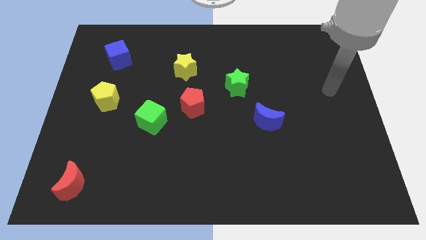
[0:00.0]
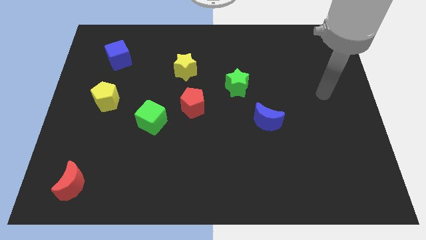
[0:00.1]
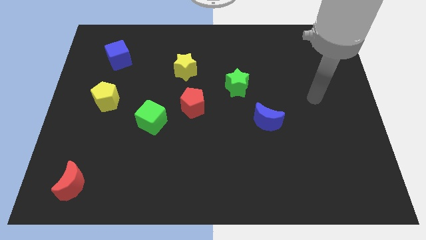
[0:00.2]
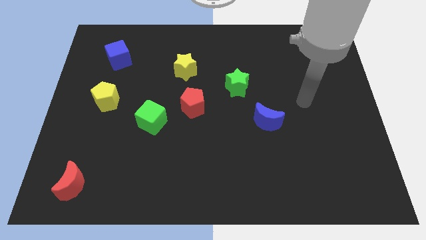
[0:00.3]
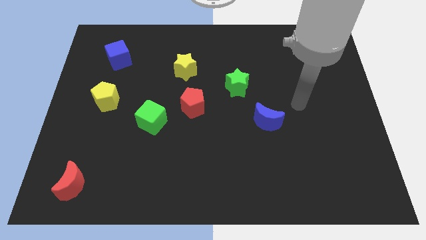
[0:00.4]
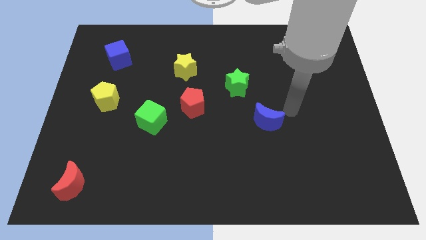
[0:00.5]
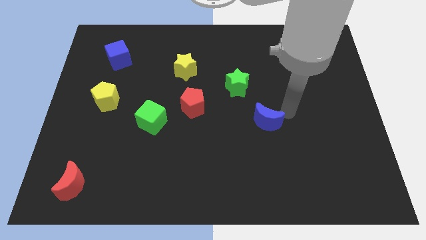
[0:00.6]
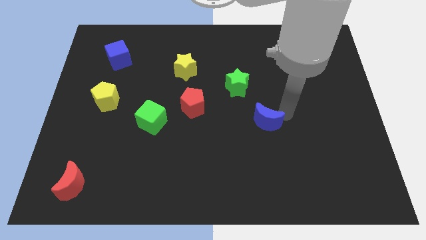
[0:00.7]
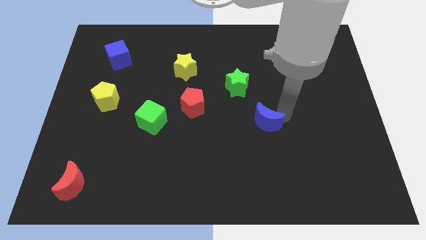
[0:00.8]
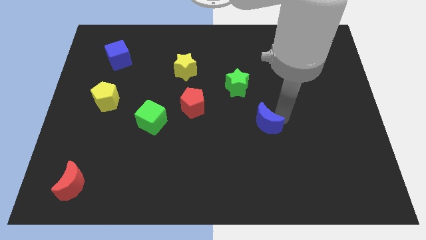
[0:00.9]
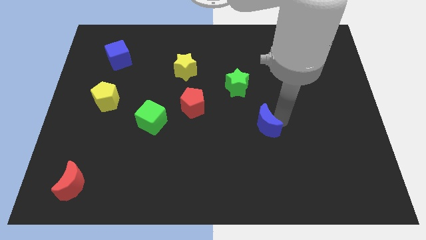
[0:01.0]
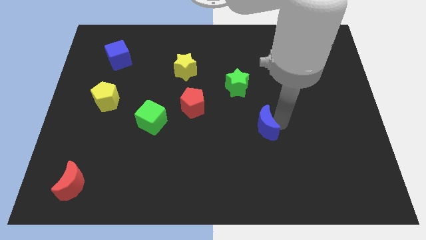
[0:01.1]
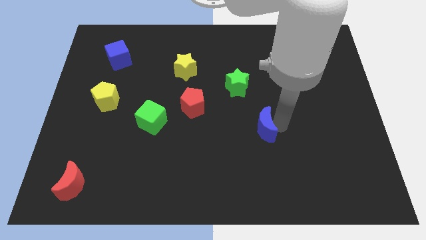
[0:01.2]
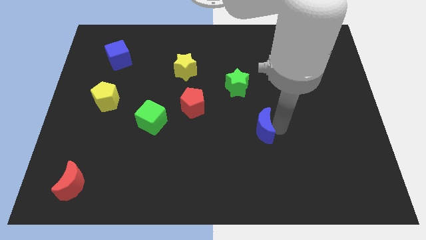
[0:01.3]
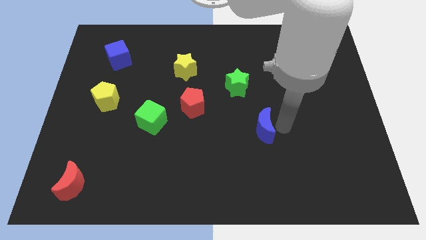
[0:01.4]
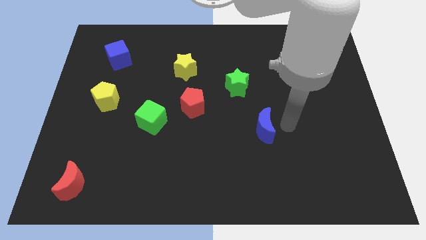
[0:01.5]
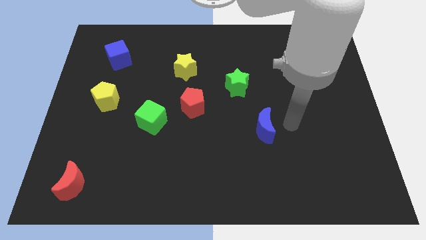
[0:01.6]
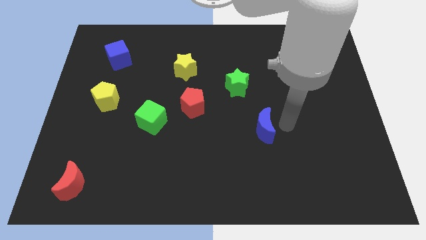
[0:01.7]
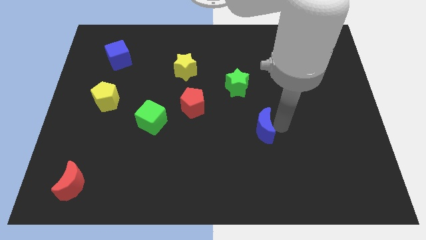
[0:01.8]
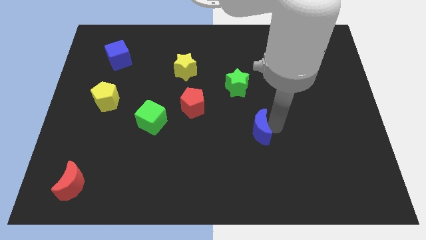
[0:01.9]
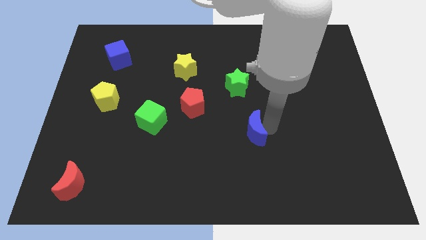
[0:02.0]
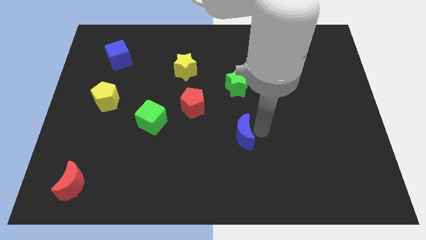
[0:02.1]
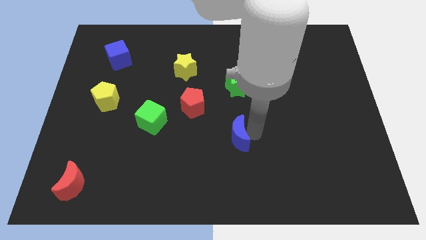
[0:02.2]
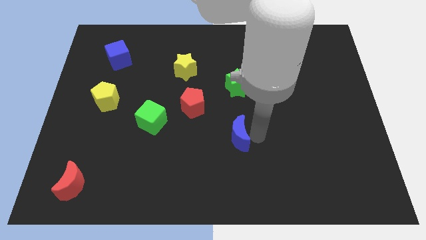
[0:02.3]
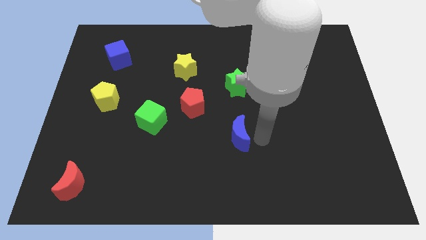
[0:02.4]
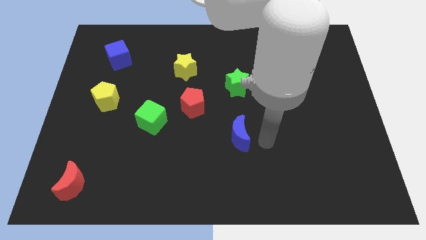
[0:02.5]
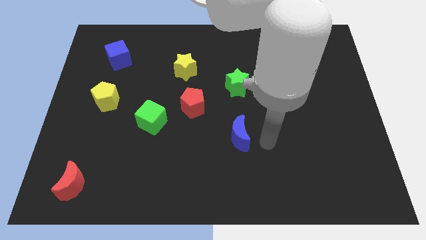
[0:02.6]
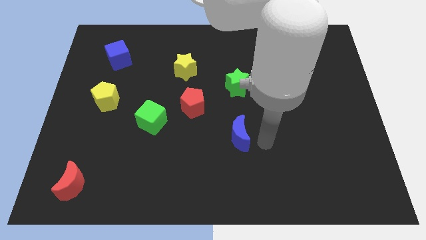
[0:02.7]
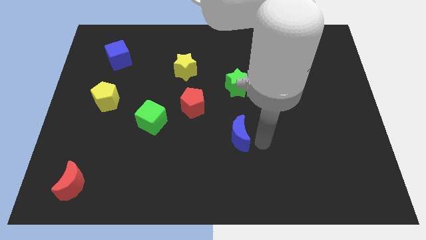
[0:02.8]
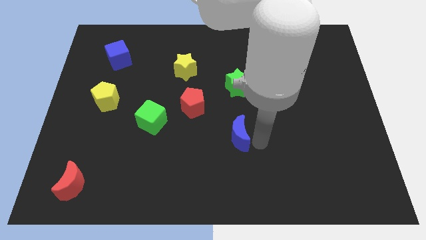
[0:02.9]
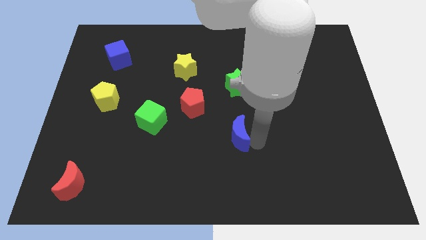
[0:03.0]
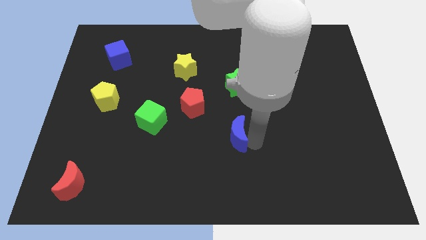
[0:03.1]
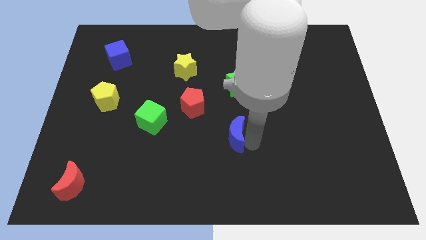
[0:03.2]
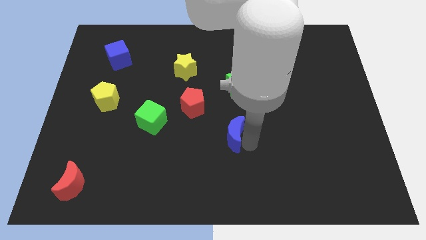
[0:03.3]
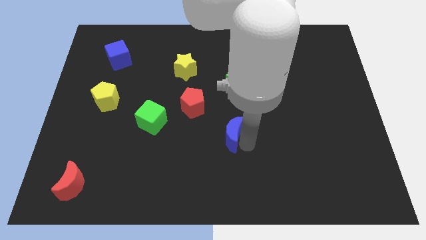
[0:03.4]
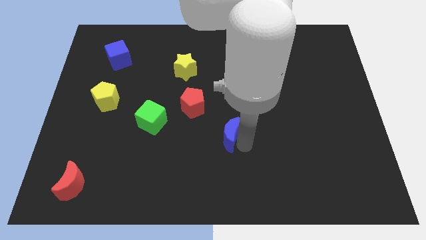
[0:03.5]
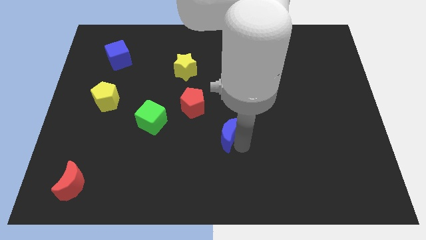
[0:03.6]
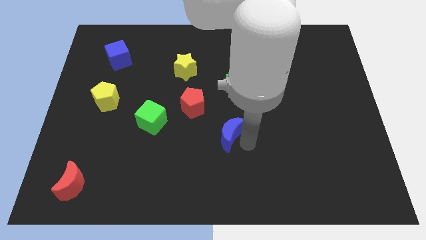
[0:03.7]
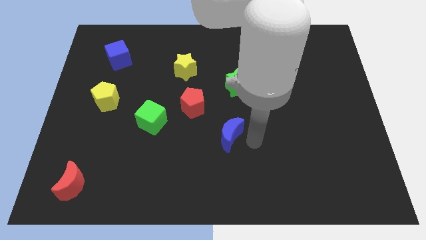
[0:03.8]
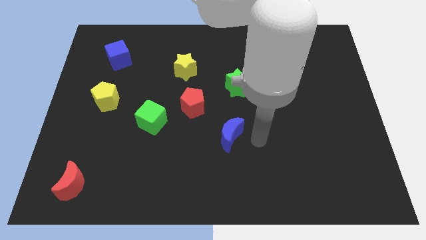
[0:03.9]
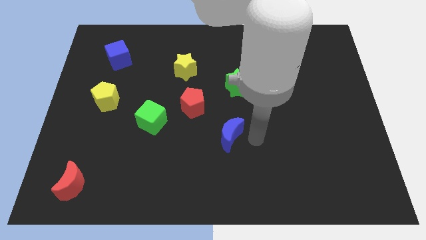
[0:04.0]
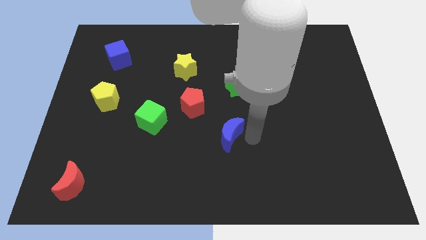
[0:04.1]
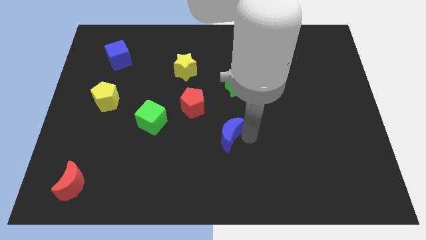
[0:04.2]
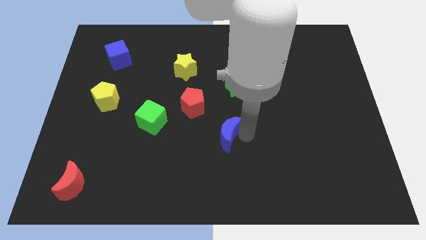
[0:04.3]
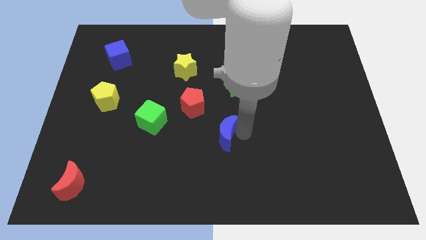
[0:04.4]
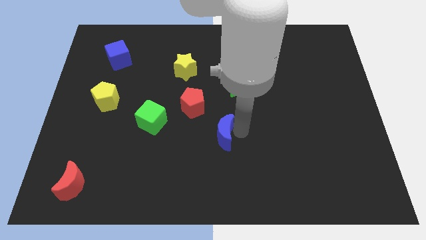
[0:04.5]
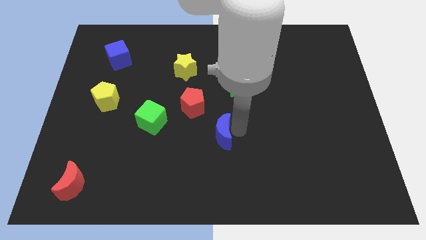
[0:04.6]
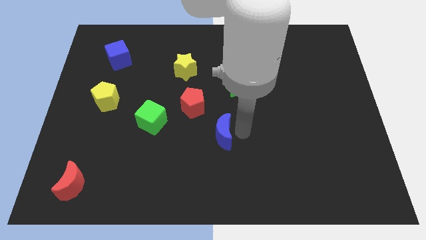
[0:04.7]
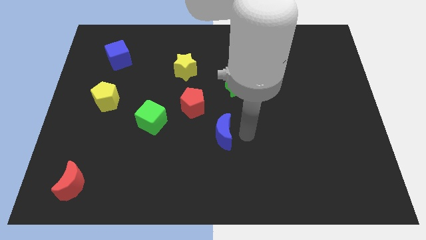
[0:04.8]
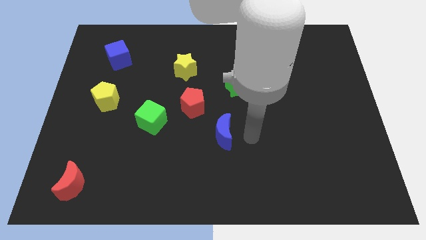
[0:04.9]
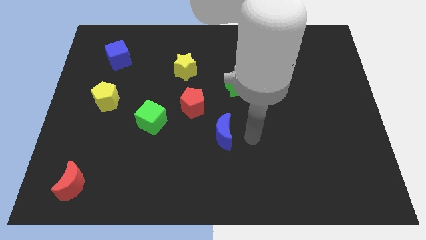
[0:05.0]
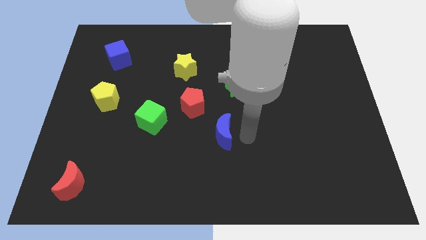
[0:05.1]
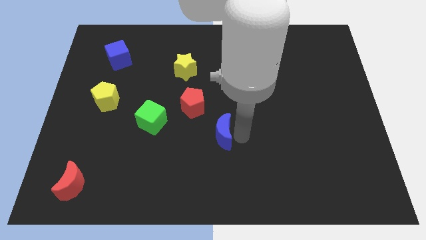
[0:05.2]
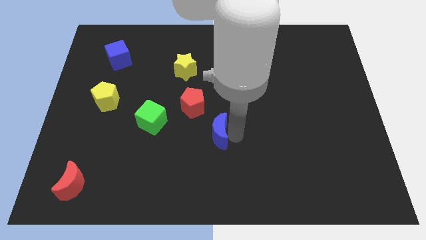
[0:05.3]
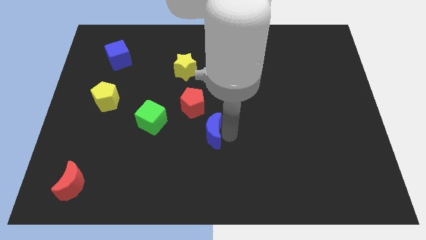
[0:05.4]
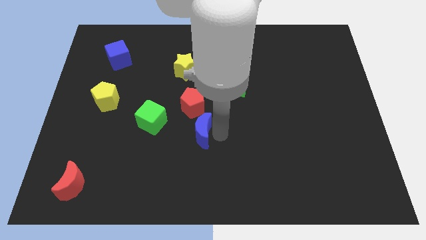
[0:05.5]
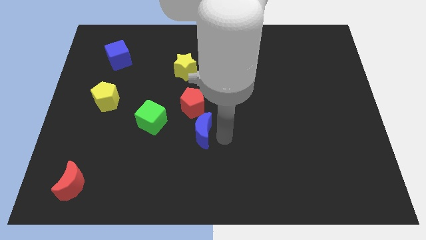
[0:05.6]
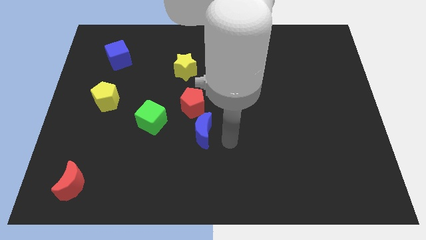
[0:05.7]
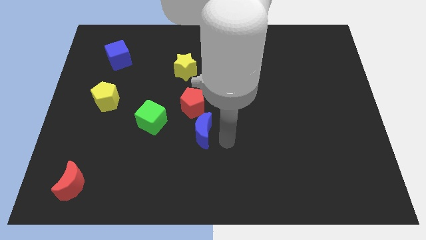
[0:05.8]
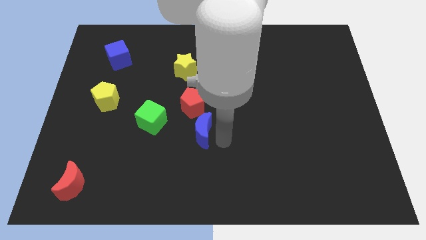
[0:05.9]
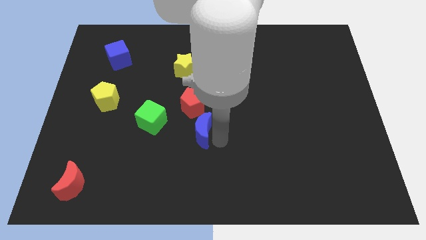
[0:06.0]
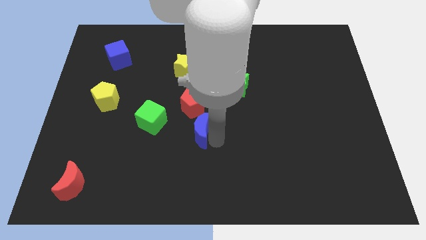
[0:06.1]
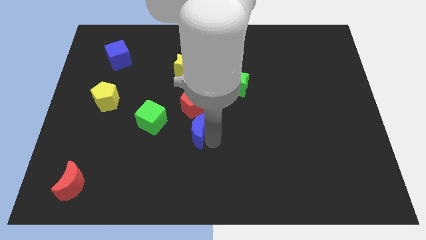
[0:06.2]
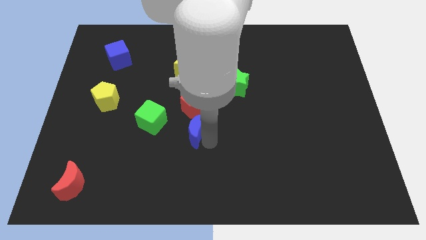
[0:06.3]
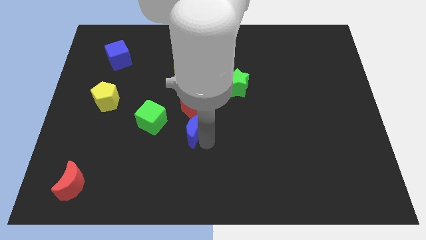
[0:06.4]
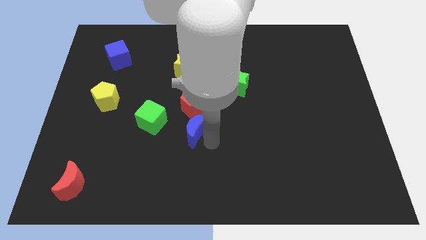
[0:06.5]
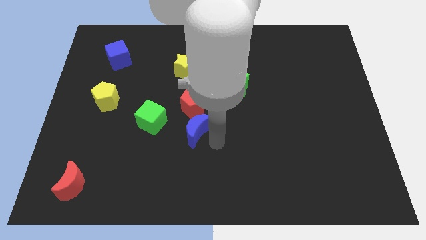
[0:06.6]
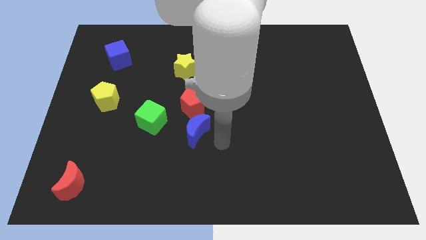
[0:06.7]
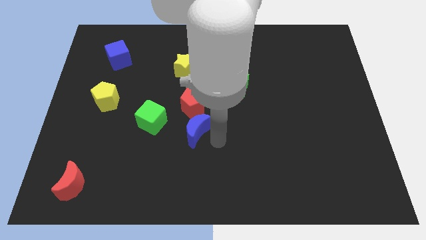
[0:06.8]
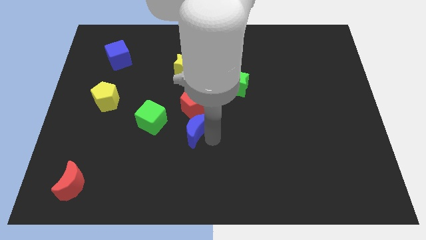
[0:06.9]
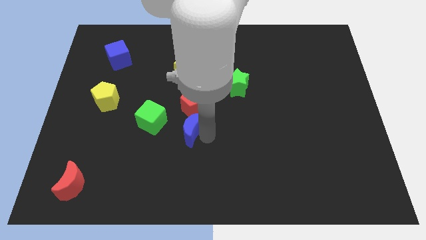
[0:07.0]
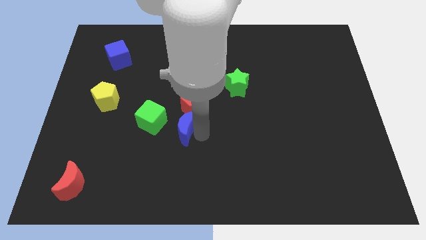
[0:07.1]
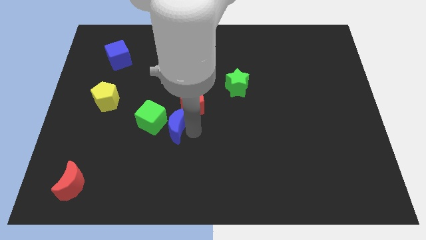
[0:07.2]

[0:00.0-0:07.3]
move the blue moon close to the green cube
